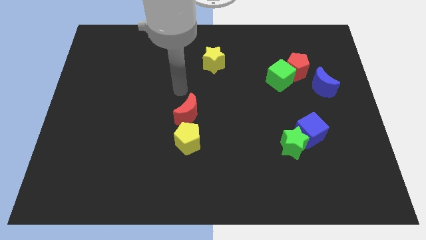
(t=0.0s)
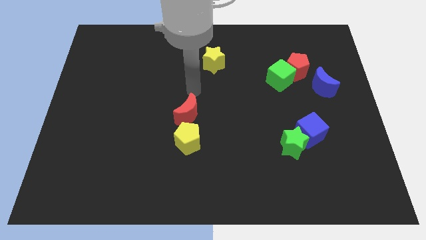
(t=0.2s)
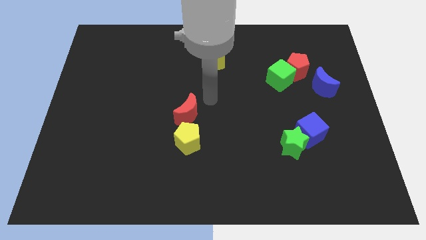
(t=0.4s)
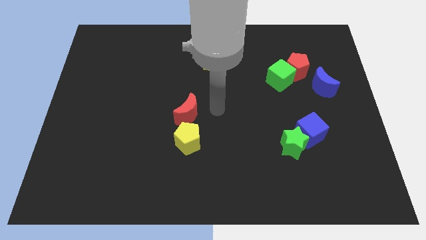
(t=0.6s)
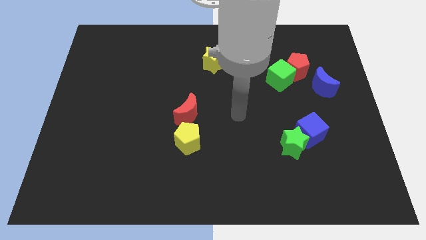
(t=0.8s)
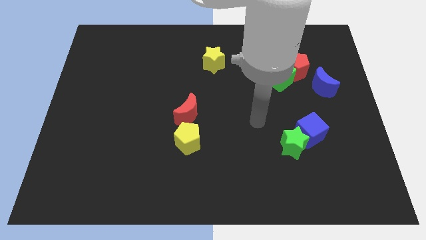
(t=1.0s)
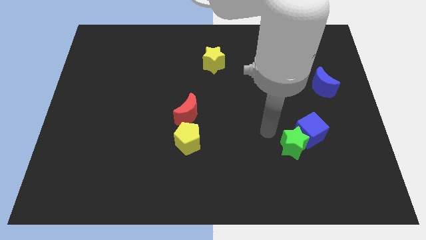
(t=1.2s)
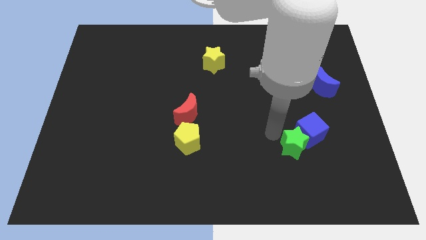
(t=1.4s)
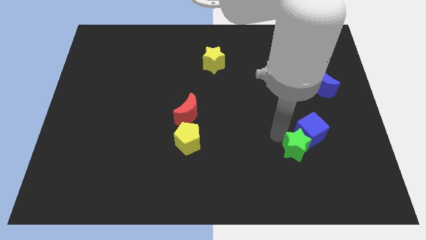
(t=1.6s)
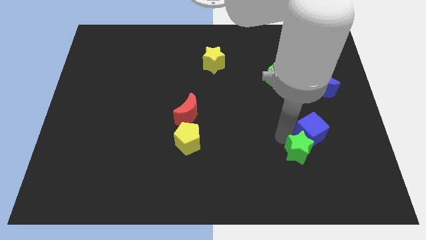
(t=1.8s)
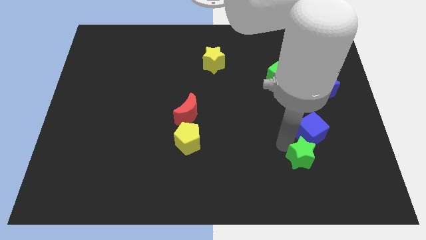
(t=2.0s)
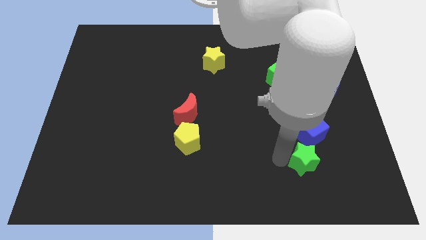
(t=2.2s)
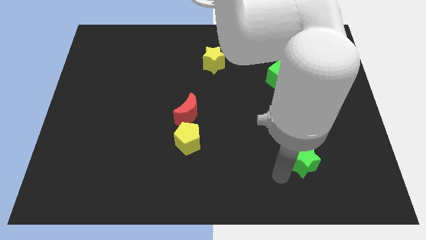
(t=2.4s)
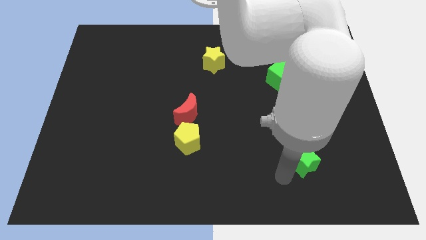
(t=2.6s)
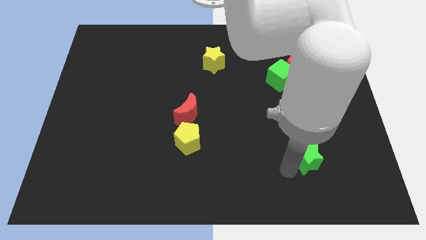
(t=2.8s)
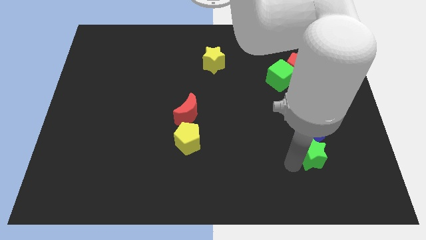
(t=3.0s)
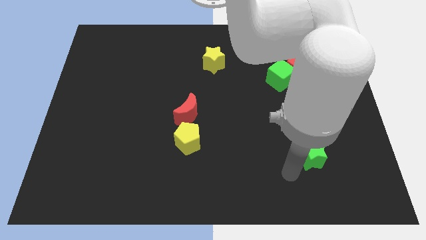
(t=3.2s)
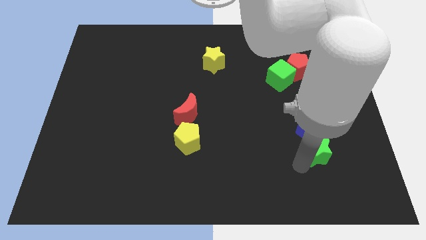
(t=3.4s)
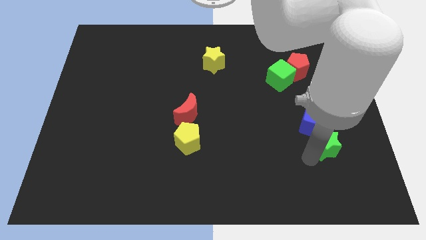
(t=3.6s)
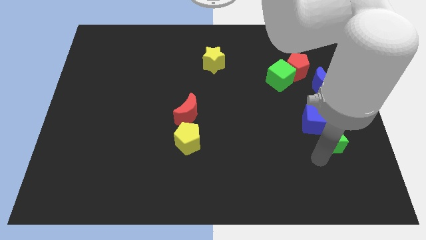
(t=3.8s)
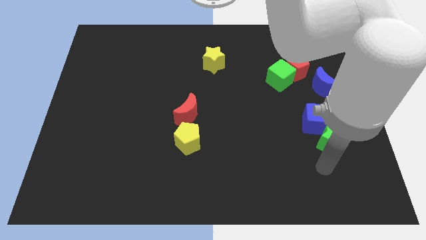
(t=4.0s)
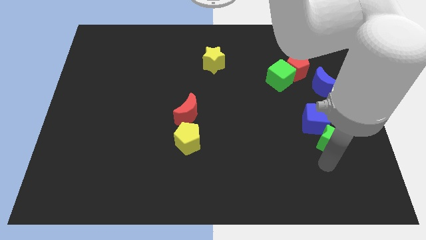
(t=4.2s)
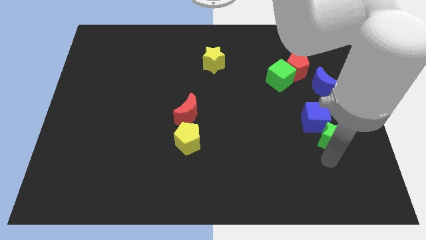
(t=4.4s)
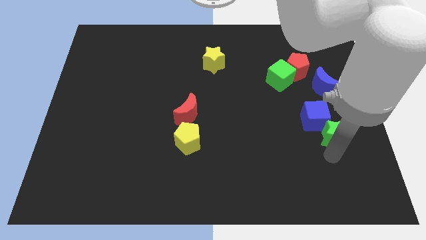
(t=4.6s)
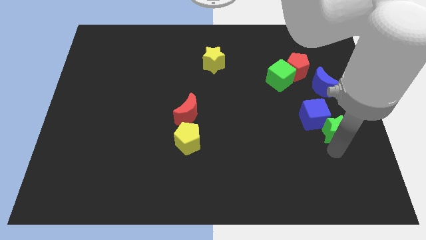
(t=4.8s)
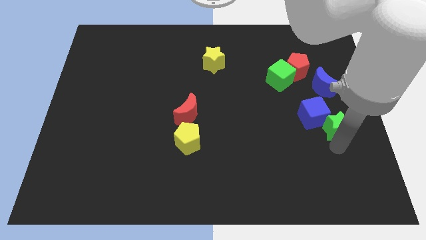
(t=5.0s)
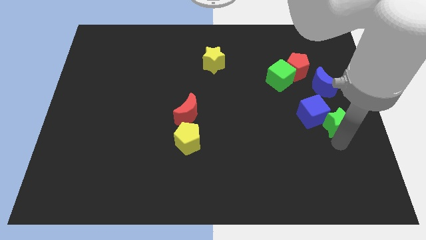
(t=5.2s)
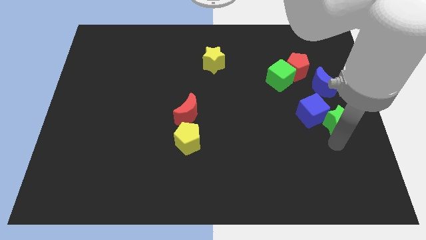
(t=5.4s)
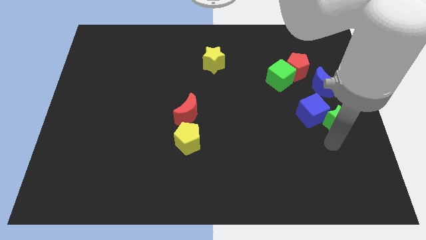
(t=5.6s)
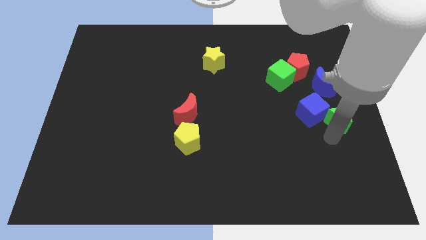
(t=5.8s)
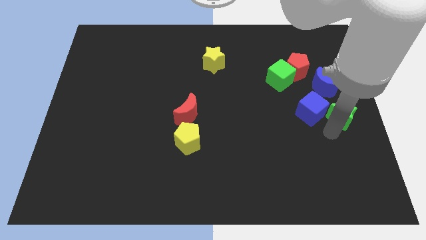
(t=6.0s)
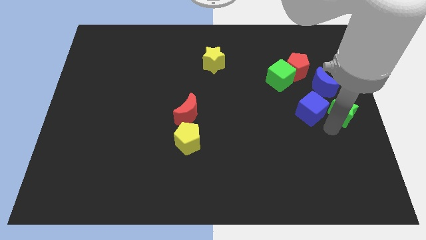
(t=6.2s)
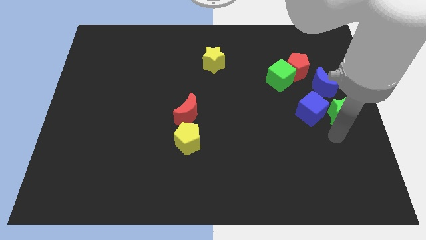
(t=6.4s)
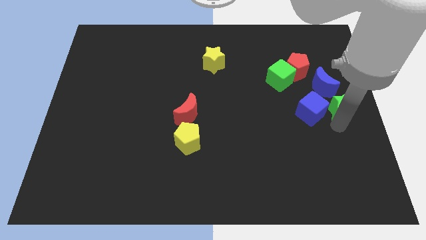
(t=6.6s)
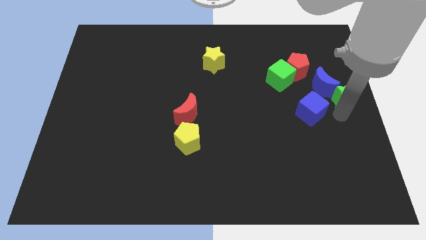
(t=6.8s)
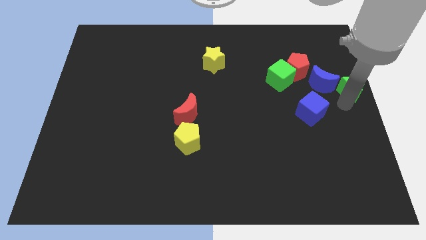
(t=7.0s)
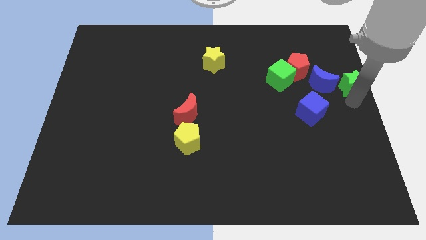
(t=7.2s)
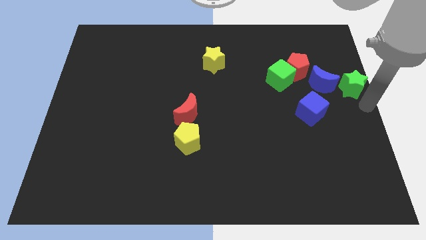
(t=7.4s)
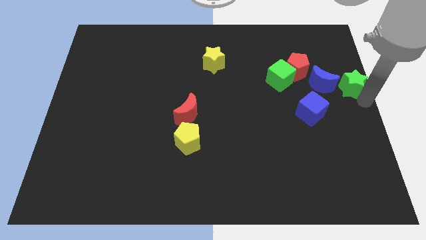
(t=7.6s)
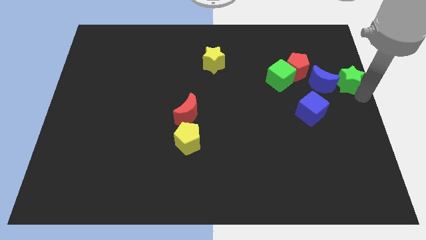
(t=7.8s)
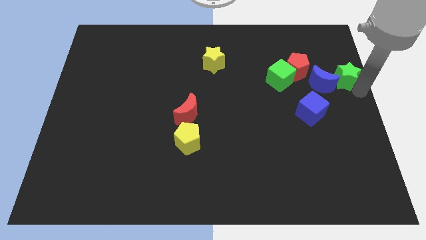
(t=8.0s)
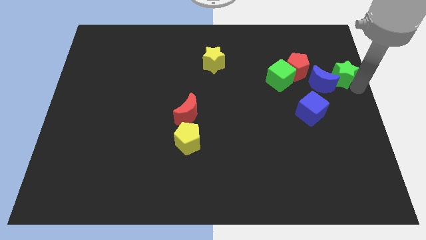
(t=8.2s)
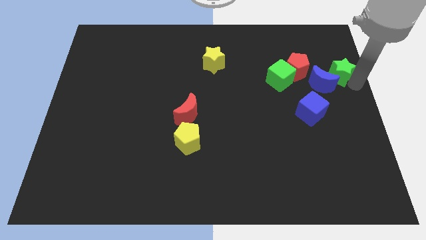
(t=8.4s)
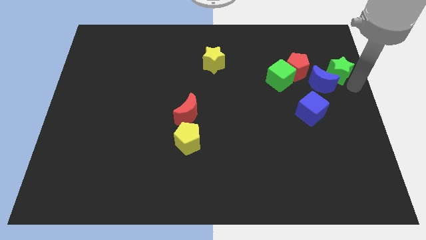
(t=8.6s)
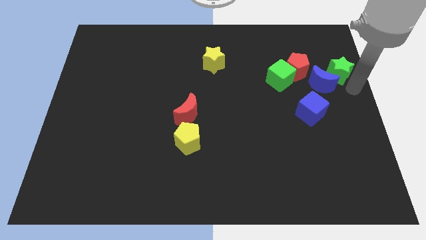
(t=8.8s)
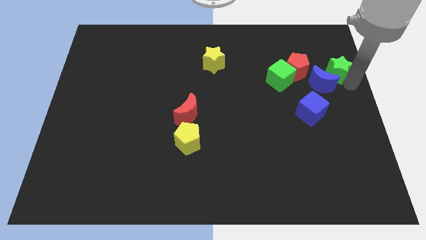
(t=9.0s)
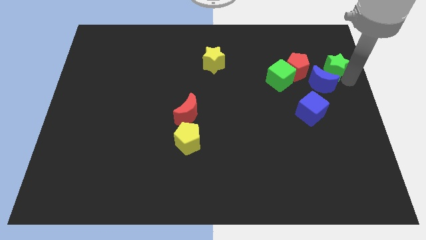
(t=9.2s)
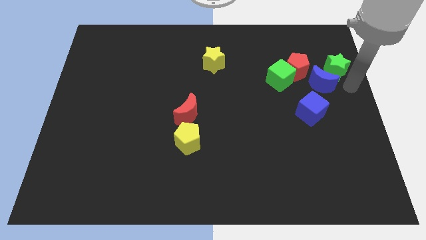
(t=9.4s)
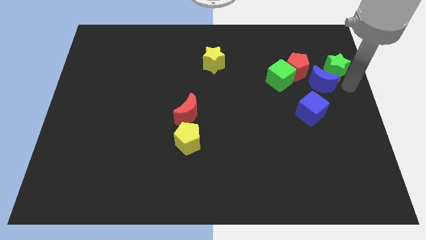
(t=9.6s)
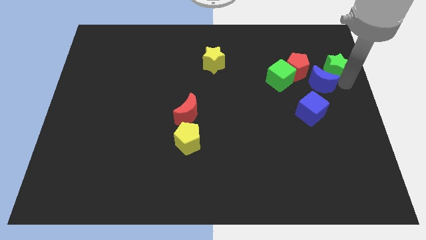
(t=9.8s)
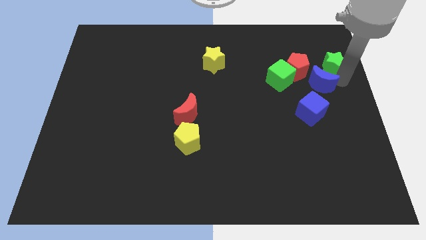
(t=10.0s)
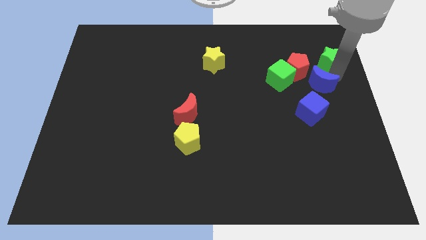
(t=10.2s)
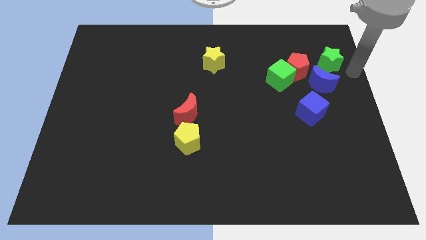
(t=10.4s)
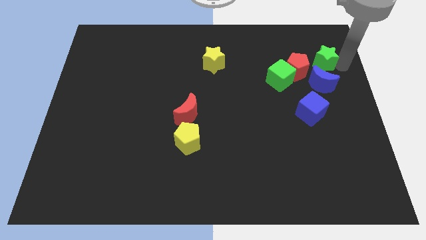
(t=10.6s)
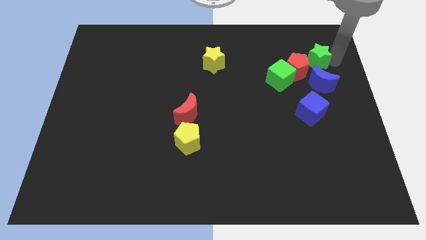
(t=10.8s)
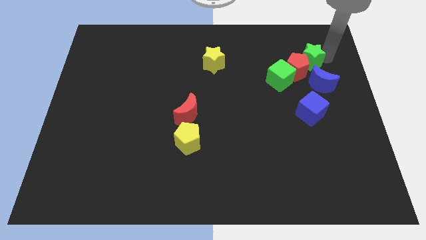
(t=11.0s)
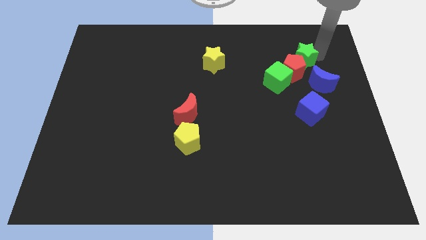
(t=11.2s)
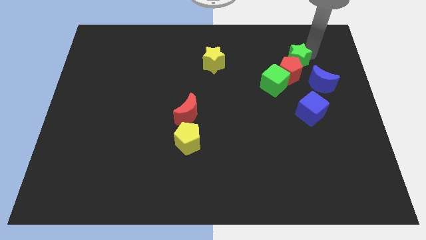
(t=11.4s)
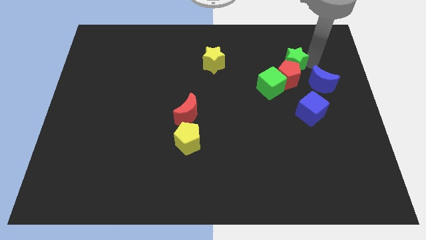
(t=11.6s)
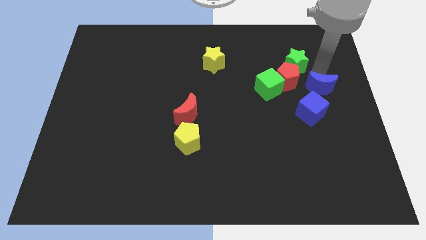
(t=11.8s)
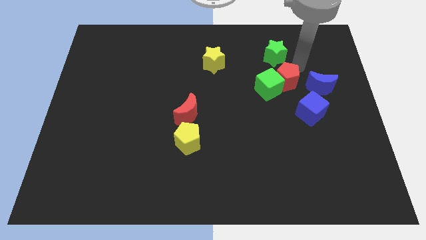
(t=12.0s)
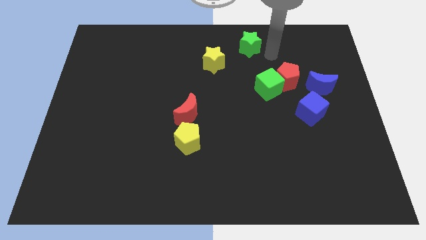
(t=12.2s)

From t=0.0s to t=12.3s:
move the green star to the top
